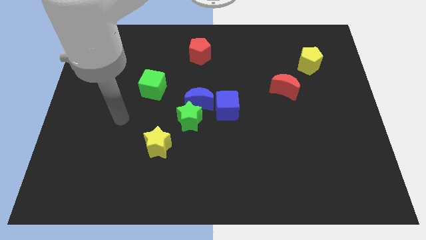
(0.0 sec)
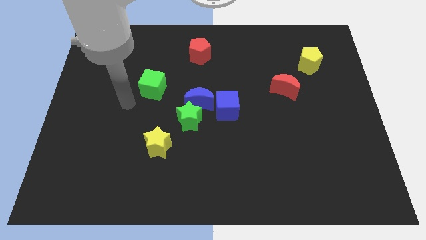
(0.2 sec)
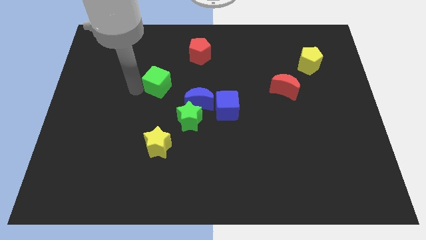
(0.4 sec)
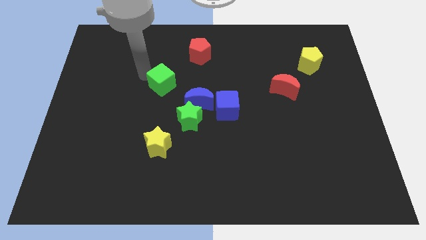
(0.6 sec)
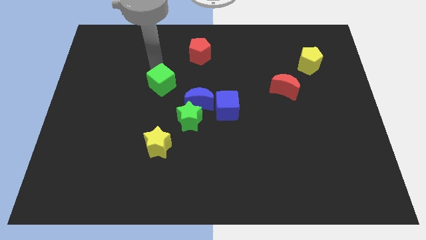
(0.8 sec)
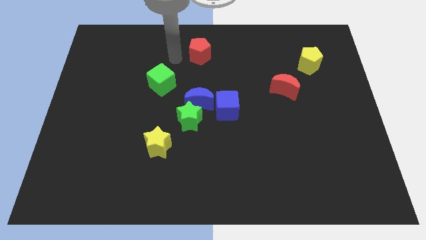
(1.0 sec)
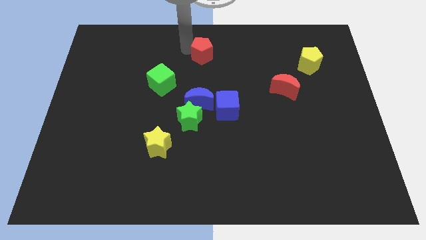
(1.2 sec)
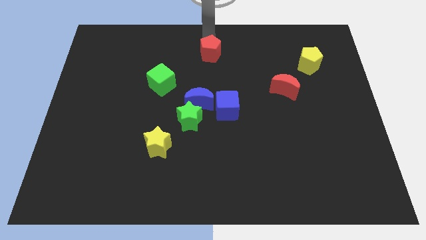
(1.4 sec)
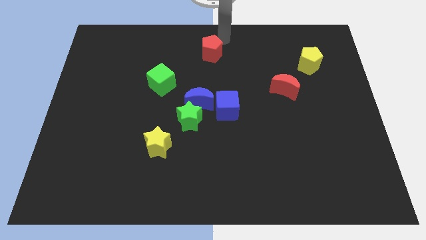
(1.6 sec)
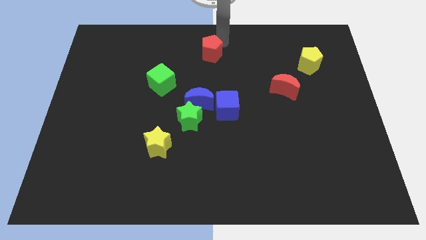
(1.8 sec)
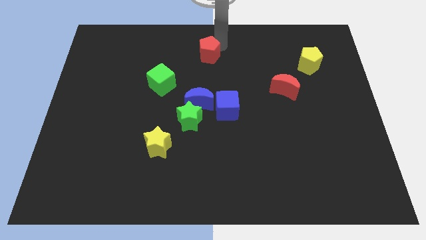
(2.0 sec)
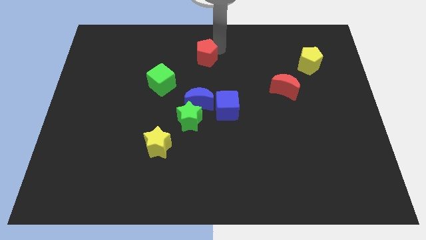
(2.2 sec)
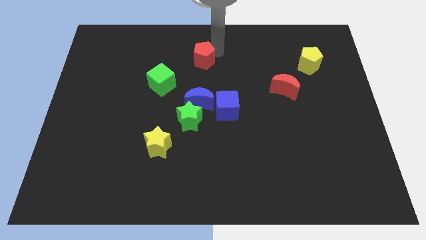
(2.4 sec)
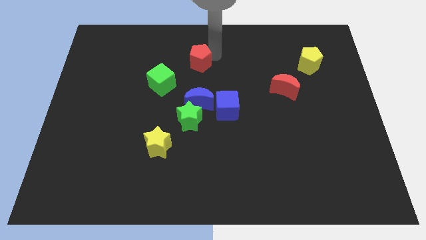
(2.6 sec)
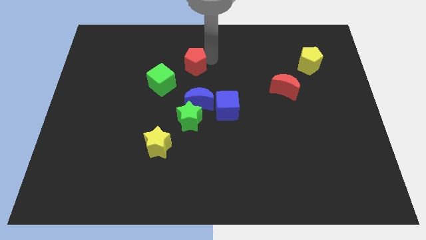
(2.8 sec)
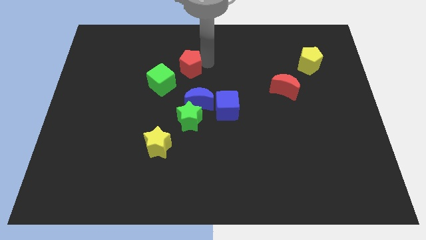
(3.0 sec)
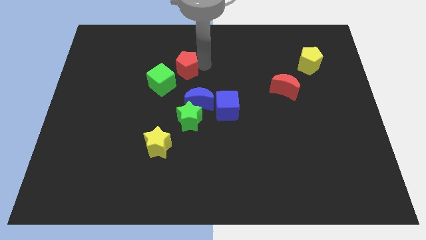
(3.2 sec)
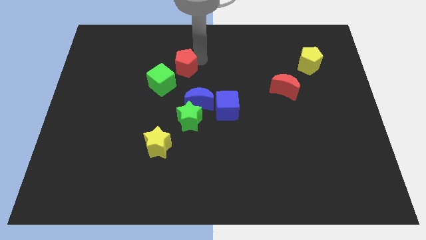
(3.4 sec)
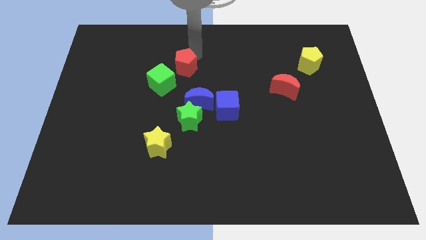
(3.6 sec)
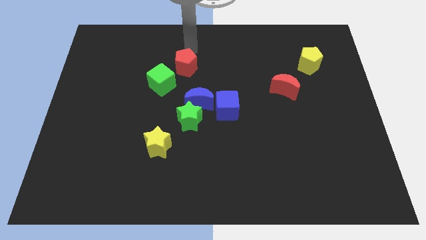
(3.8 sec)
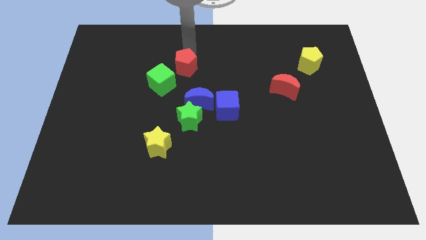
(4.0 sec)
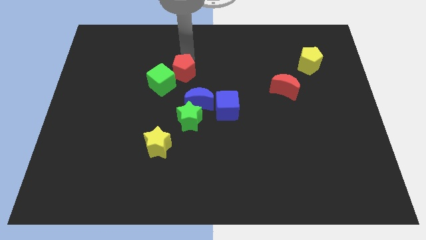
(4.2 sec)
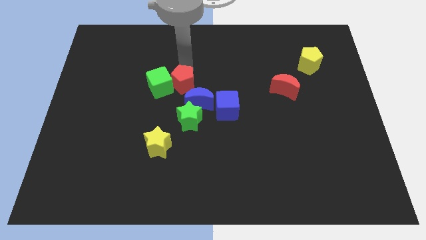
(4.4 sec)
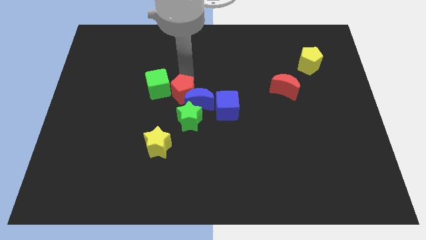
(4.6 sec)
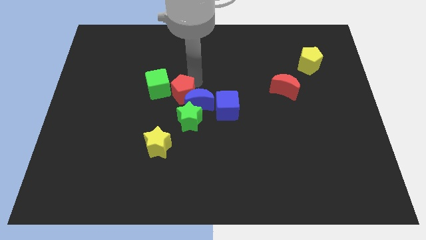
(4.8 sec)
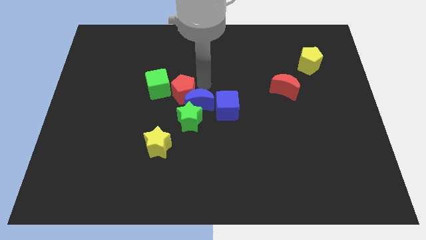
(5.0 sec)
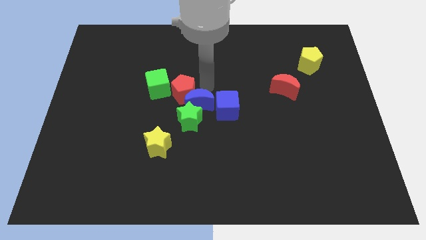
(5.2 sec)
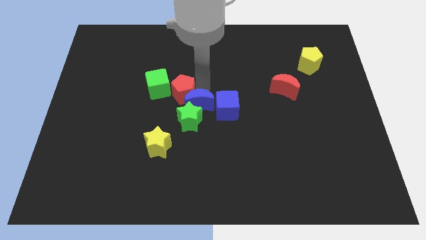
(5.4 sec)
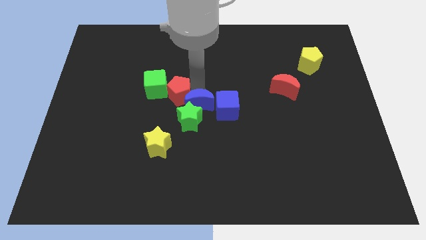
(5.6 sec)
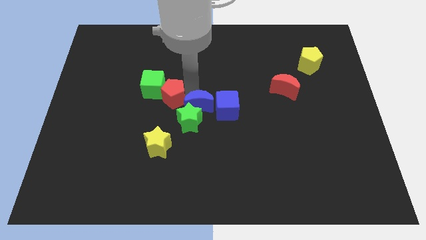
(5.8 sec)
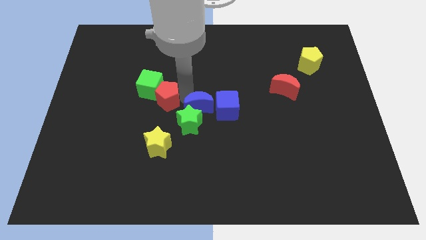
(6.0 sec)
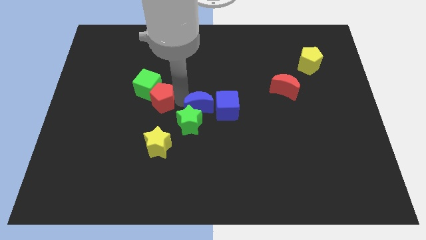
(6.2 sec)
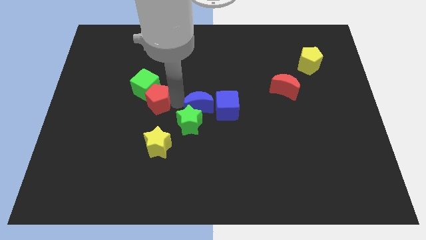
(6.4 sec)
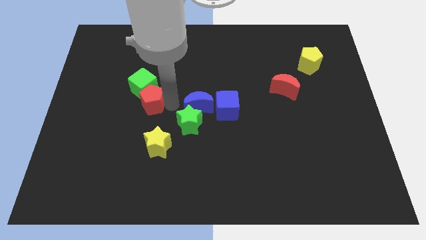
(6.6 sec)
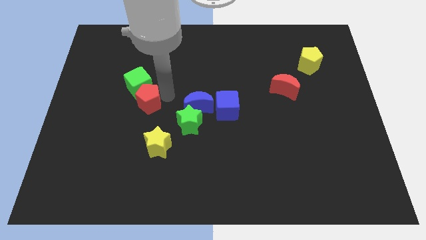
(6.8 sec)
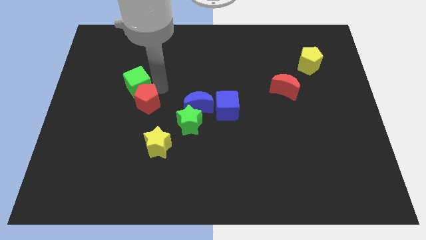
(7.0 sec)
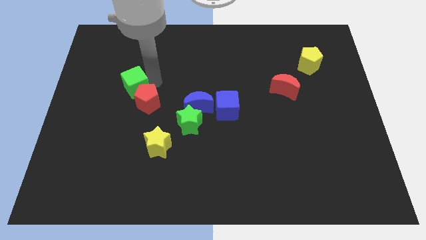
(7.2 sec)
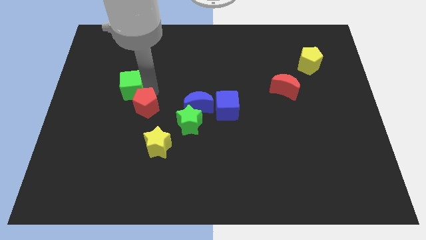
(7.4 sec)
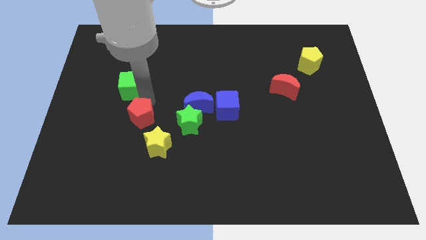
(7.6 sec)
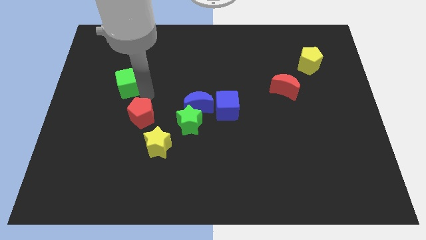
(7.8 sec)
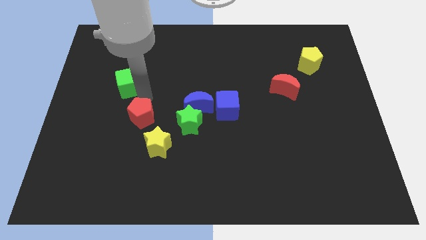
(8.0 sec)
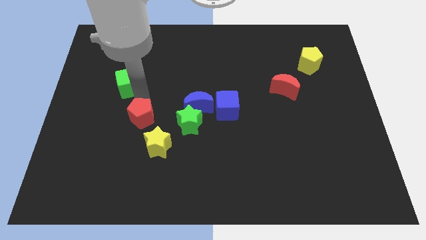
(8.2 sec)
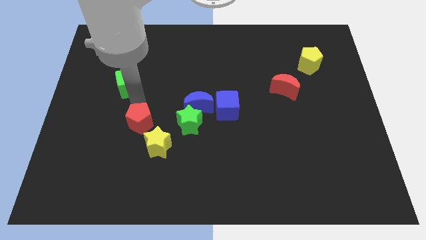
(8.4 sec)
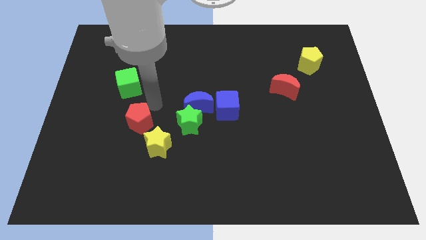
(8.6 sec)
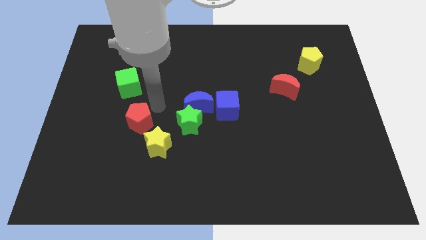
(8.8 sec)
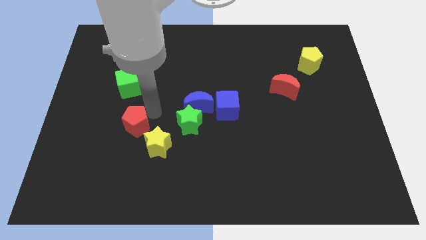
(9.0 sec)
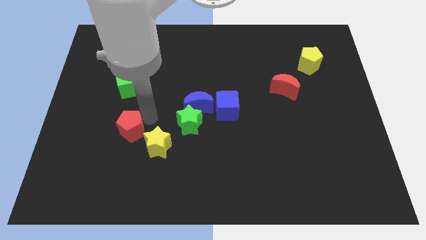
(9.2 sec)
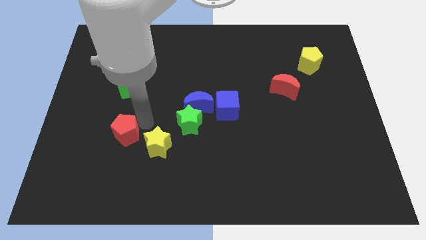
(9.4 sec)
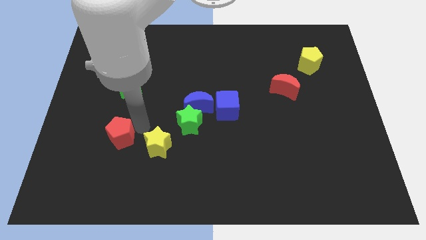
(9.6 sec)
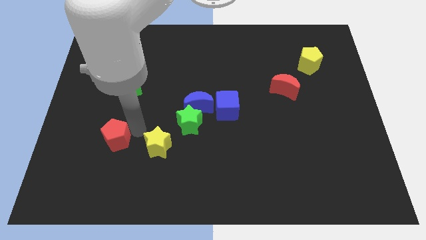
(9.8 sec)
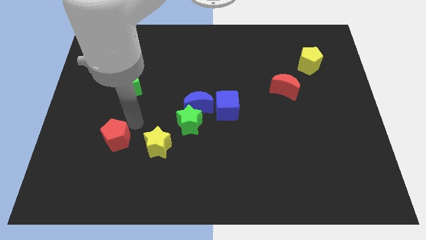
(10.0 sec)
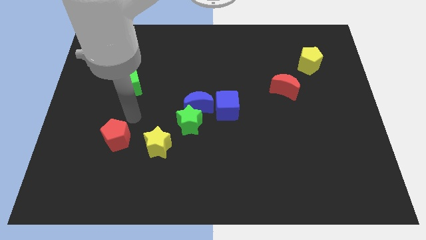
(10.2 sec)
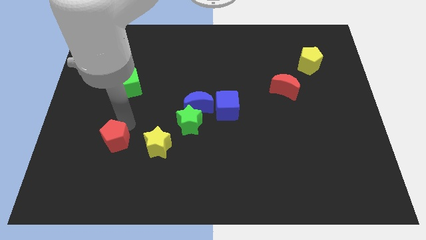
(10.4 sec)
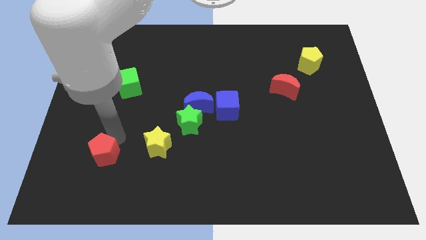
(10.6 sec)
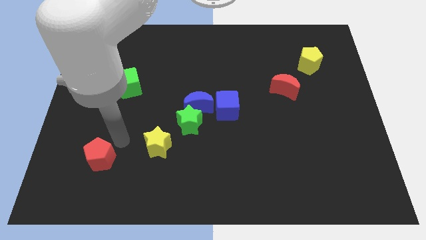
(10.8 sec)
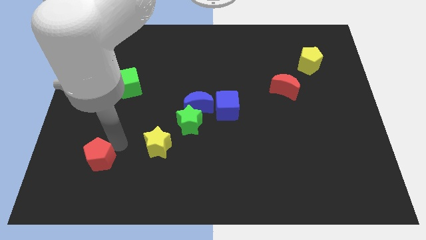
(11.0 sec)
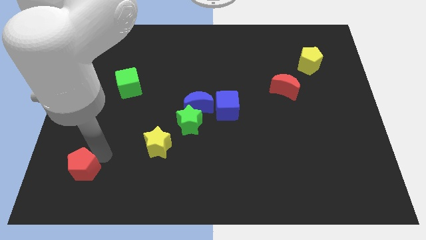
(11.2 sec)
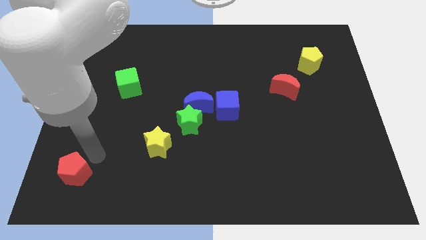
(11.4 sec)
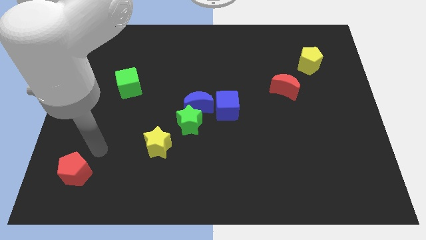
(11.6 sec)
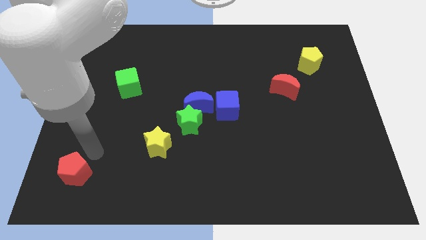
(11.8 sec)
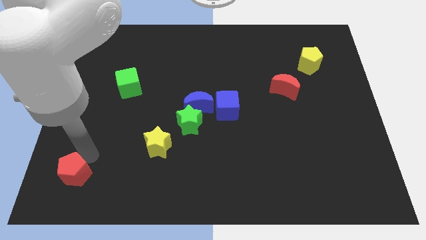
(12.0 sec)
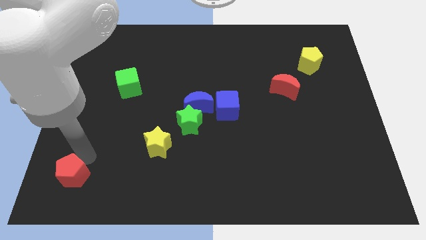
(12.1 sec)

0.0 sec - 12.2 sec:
move the red pentagon to the bottom left corner

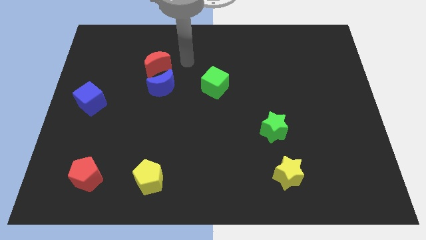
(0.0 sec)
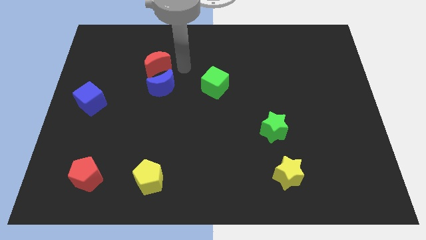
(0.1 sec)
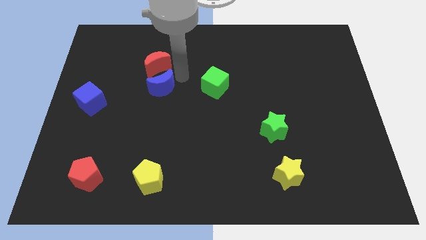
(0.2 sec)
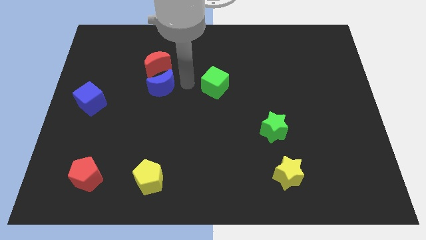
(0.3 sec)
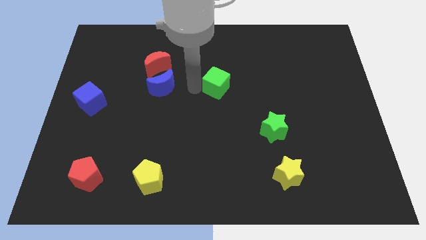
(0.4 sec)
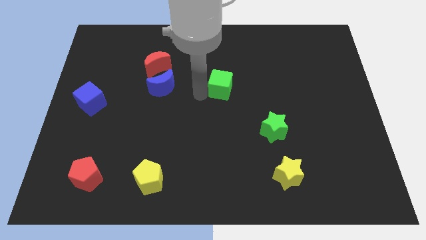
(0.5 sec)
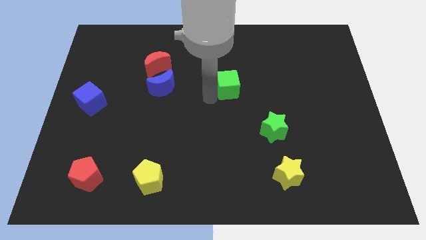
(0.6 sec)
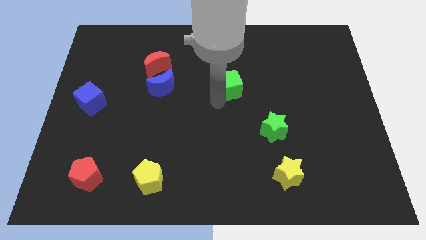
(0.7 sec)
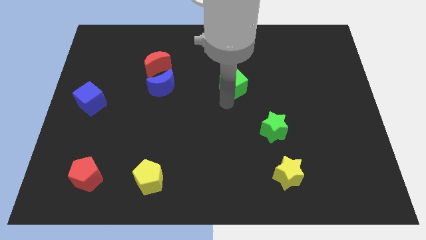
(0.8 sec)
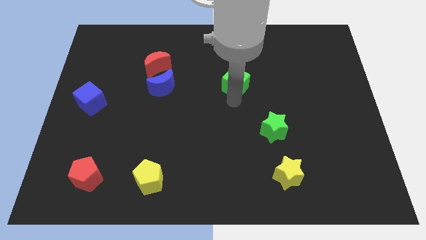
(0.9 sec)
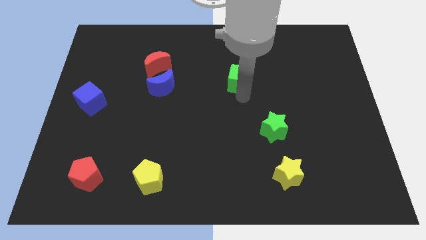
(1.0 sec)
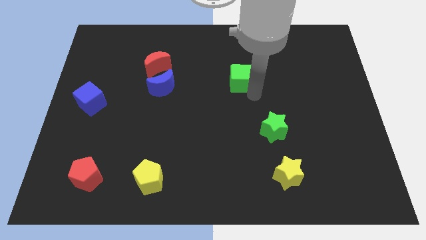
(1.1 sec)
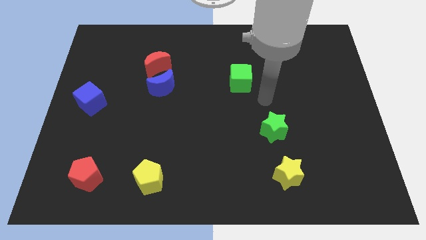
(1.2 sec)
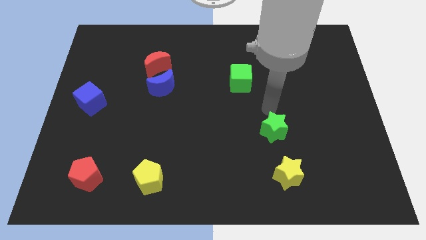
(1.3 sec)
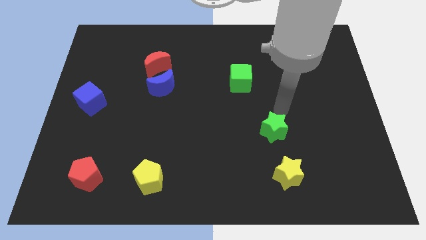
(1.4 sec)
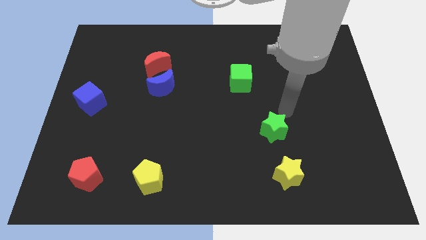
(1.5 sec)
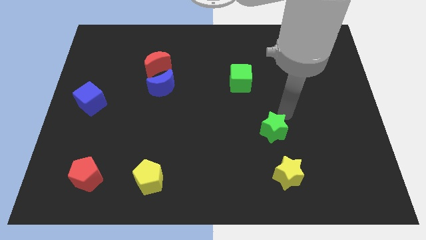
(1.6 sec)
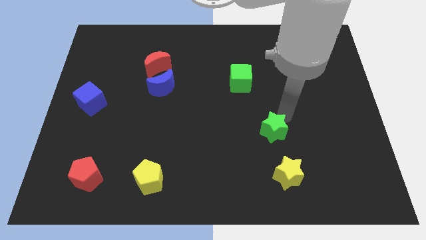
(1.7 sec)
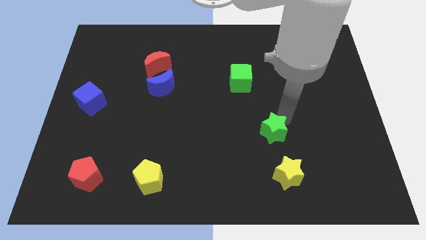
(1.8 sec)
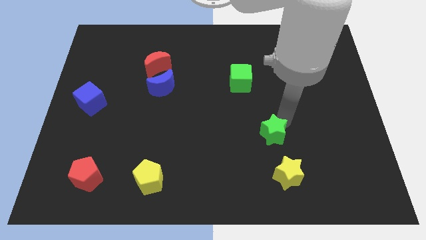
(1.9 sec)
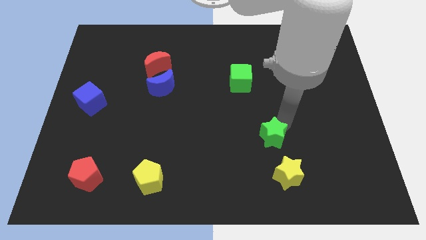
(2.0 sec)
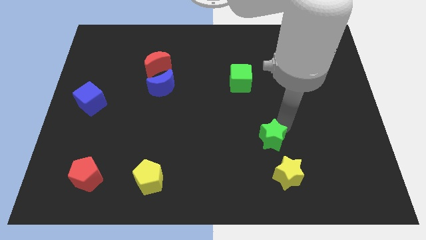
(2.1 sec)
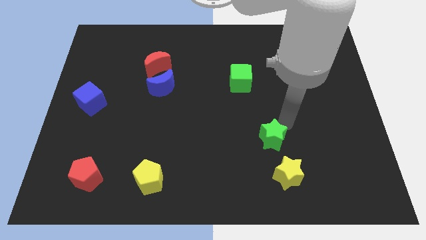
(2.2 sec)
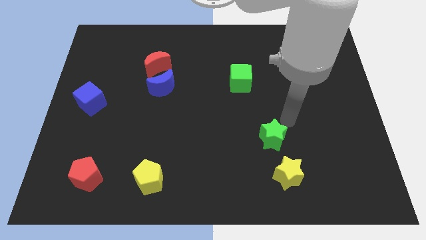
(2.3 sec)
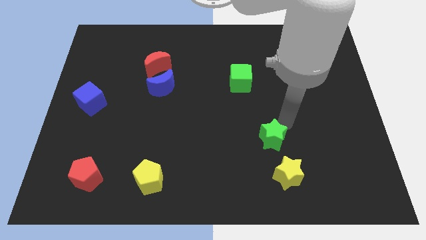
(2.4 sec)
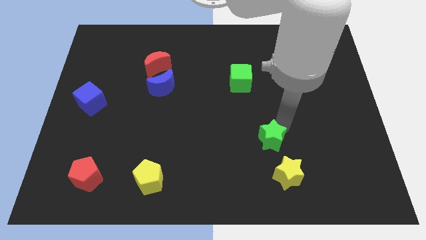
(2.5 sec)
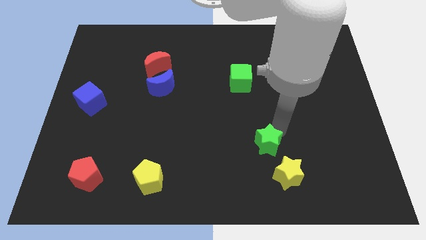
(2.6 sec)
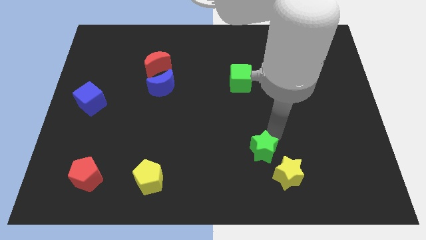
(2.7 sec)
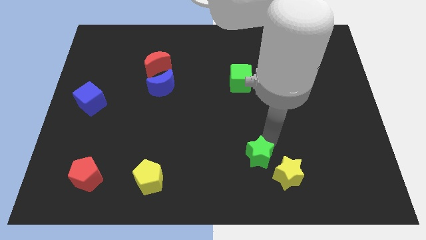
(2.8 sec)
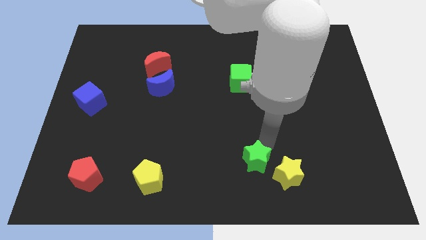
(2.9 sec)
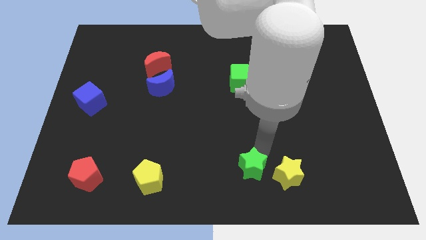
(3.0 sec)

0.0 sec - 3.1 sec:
push the green star to the bottom side
